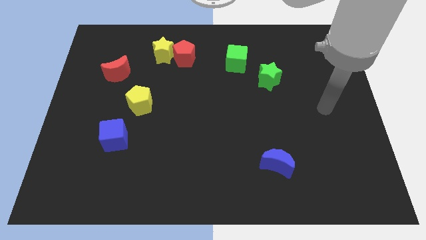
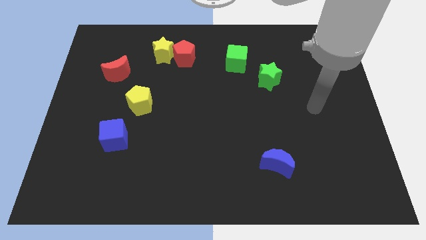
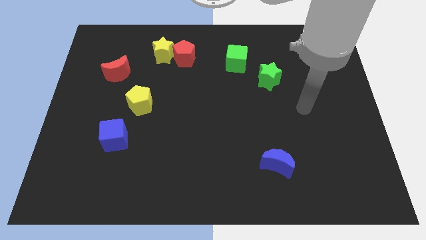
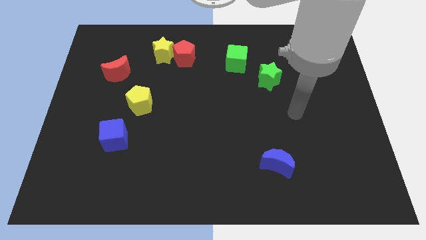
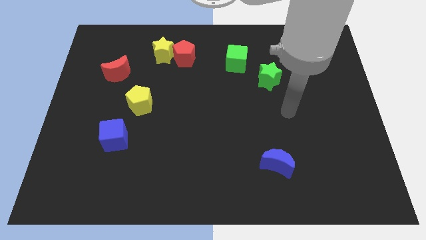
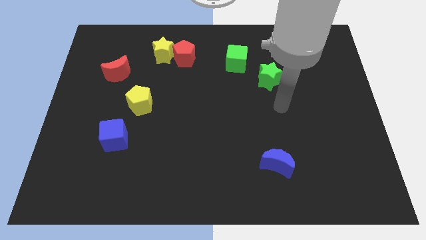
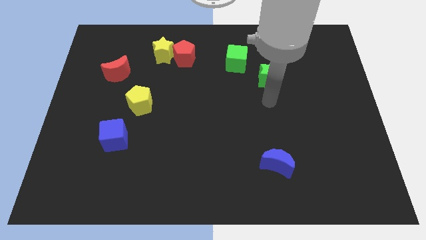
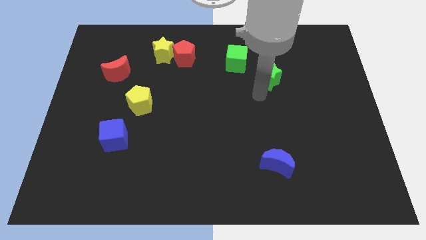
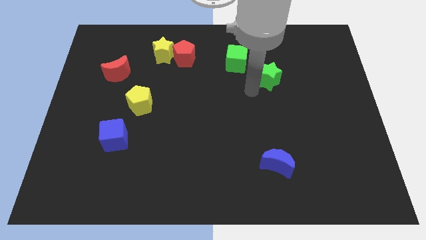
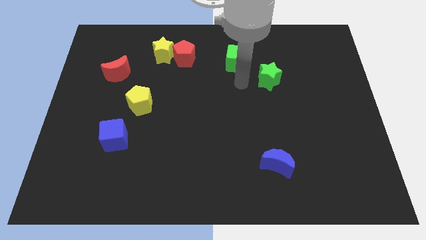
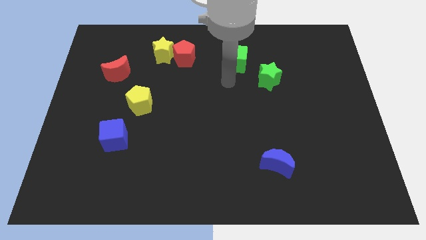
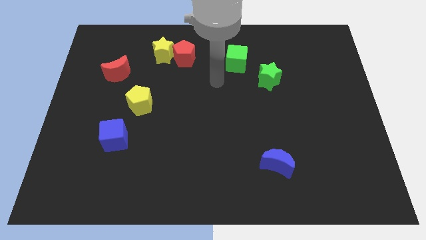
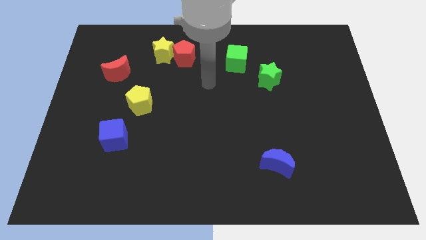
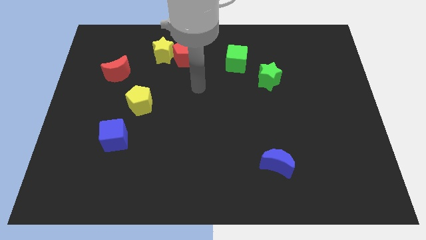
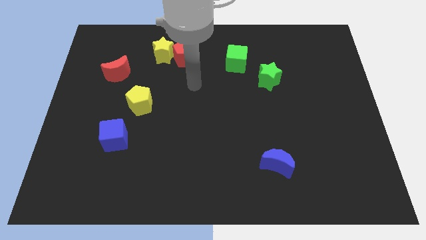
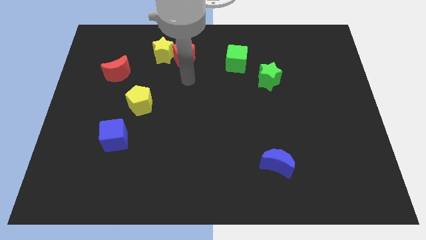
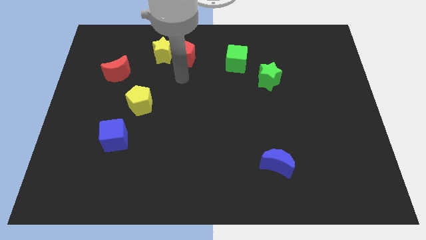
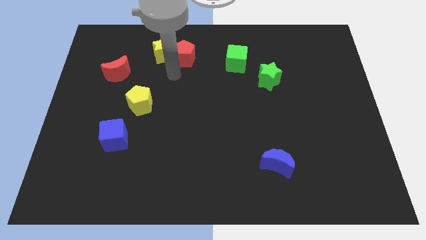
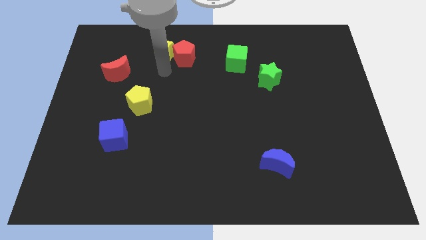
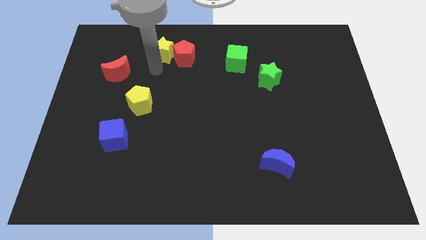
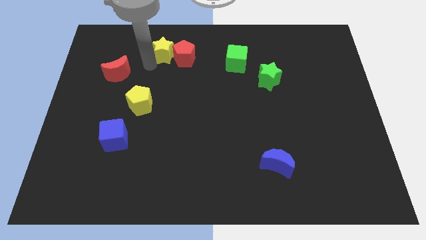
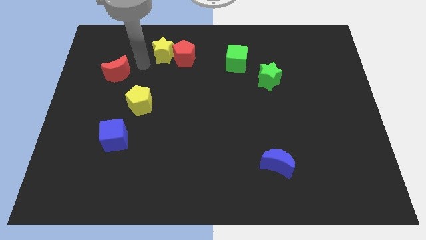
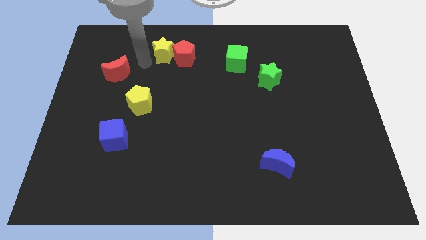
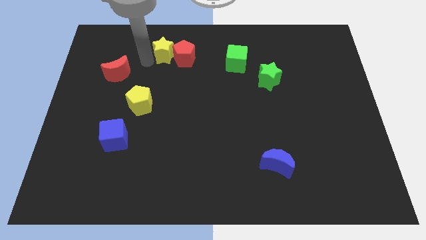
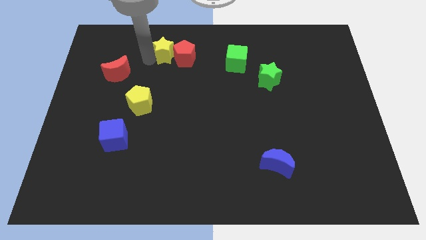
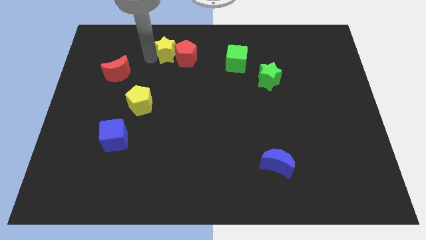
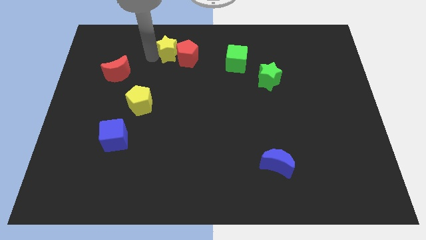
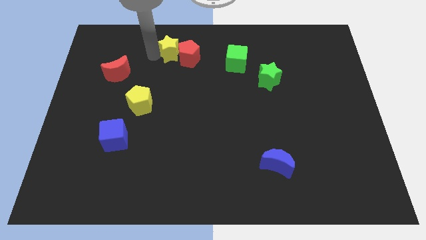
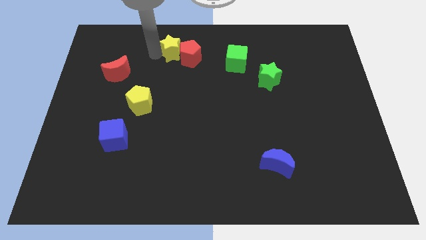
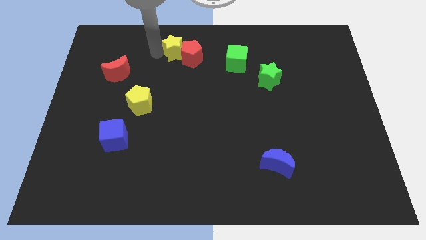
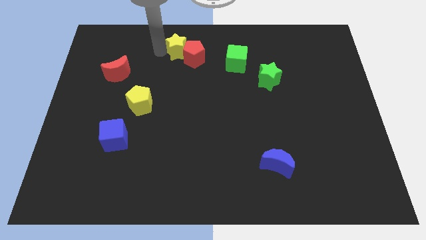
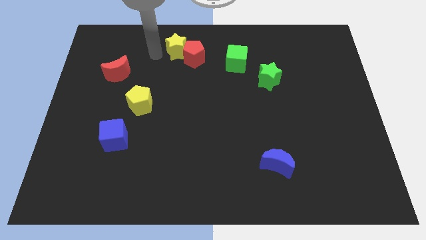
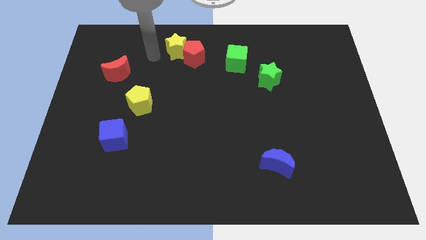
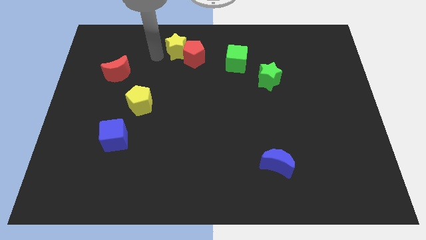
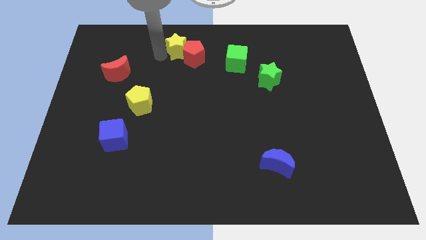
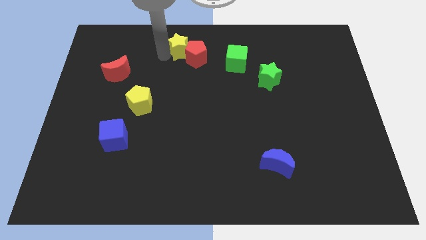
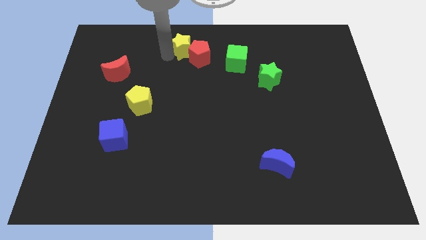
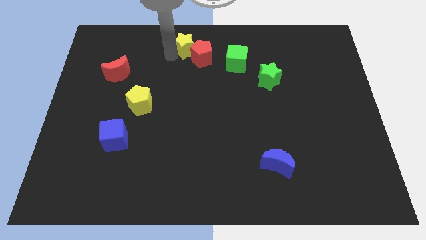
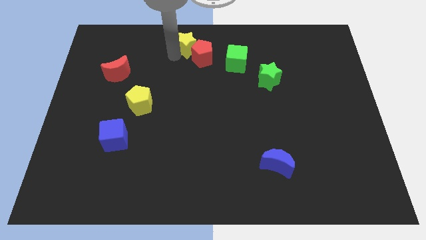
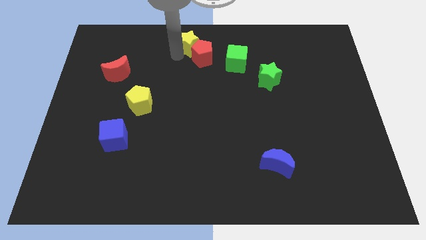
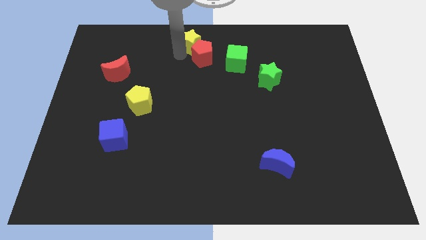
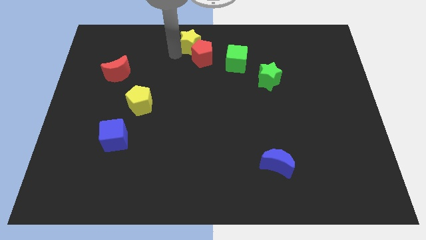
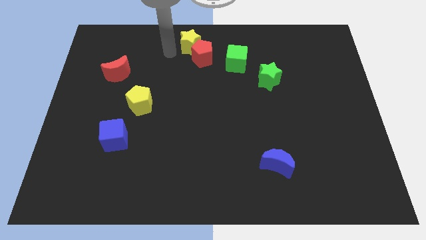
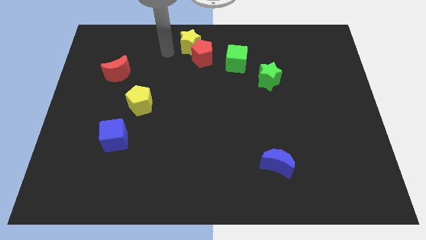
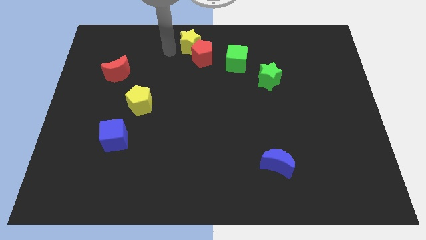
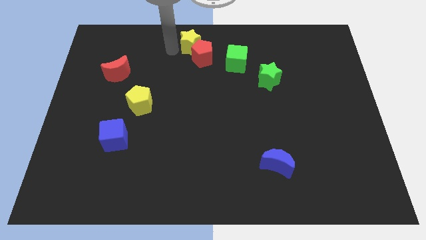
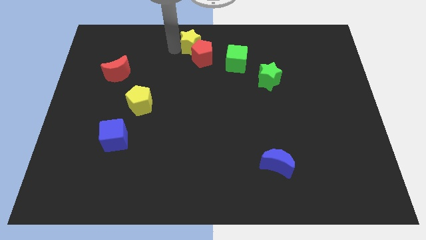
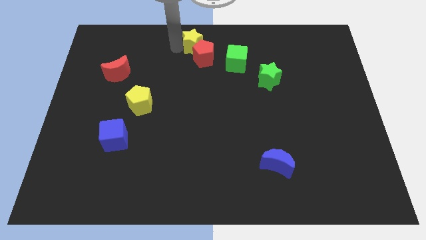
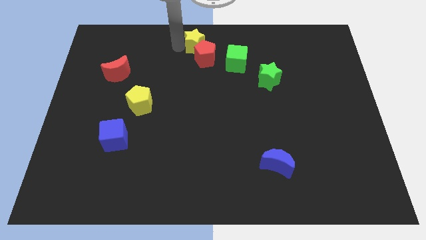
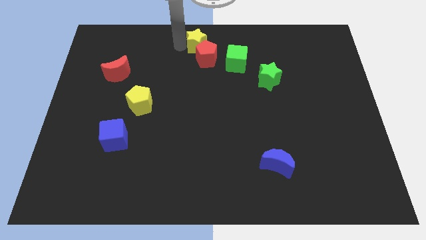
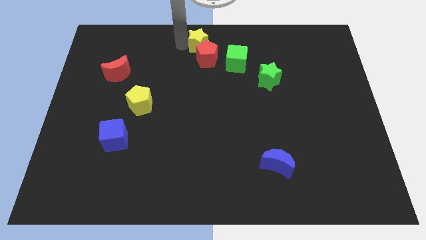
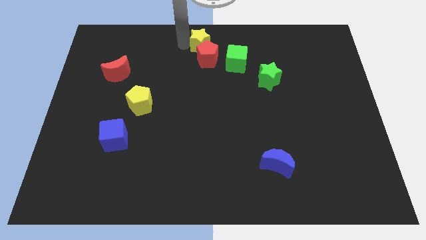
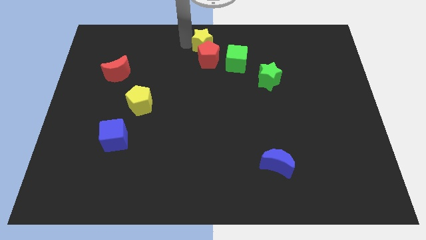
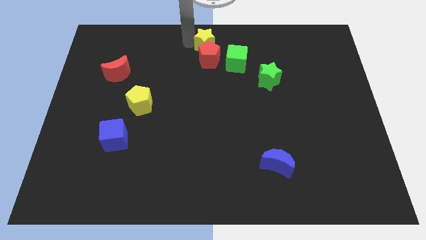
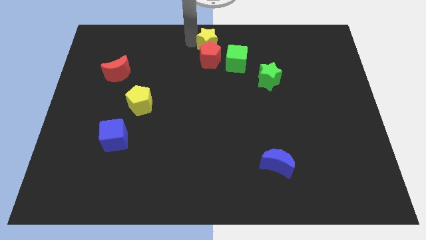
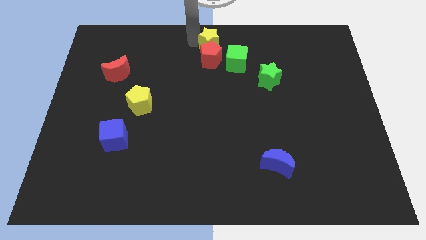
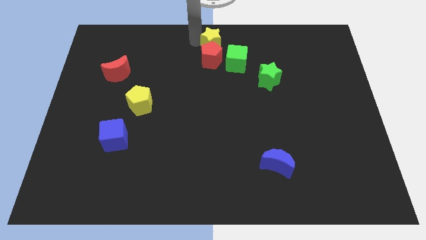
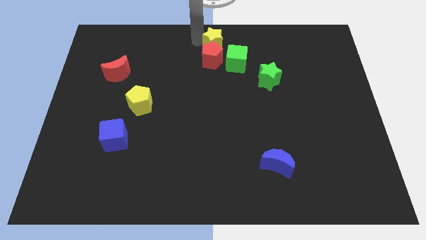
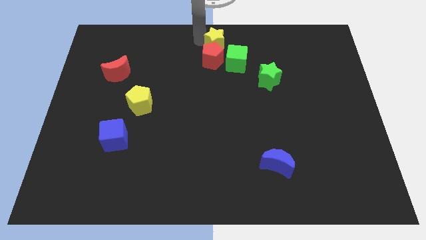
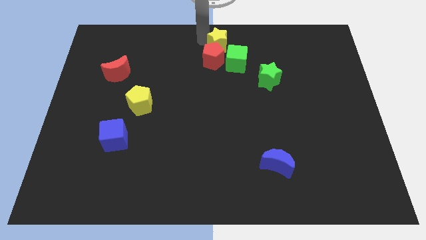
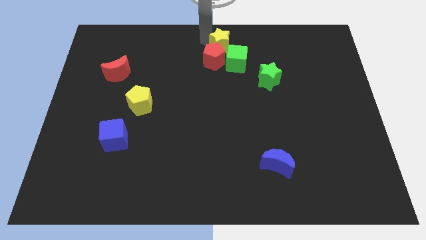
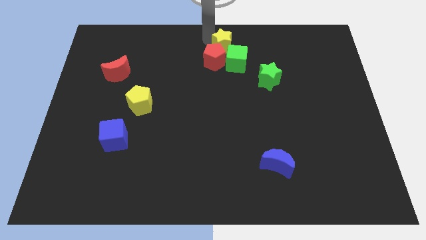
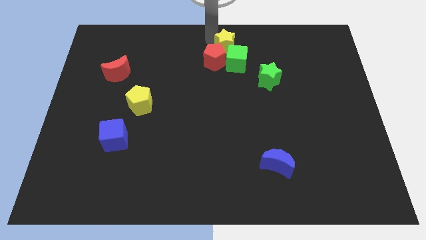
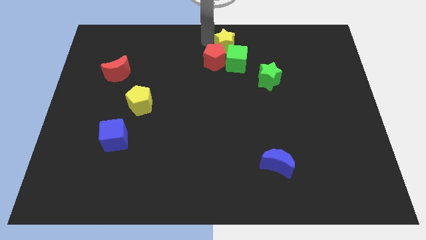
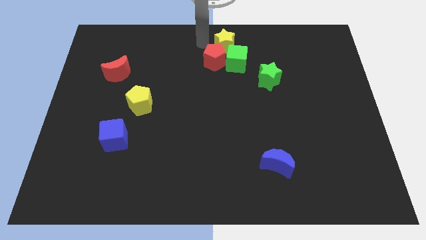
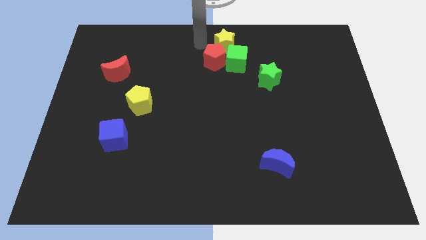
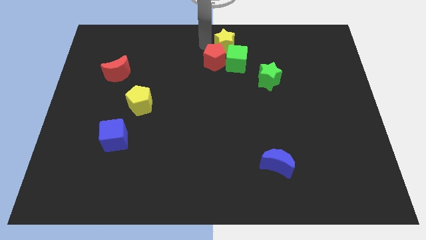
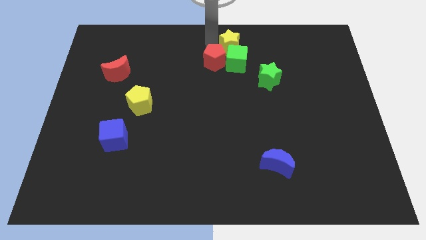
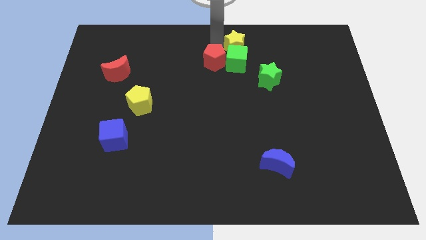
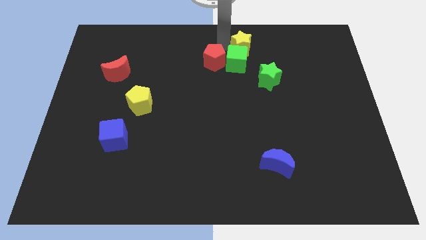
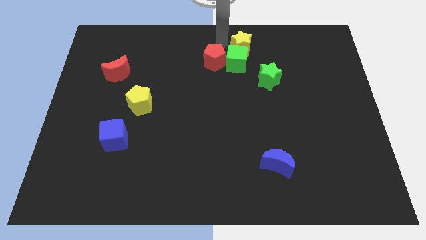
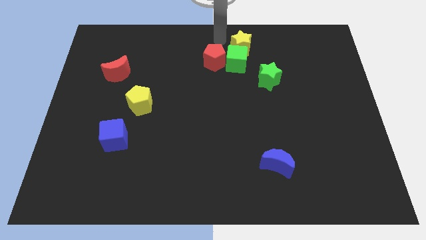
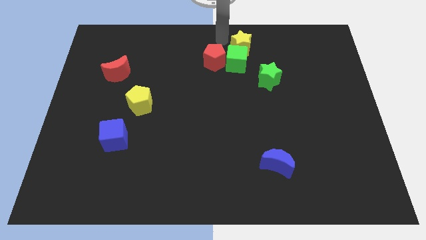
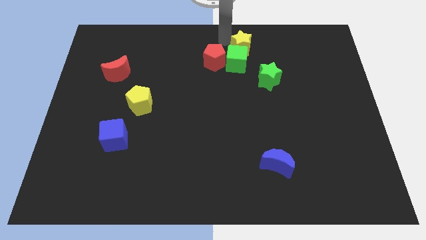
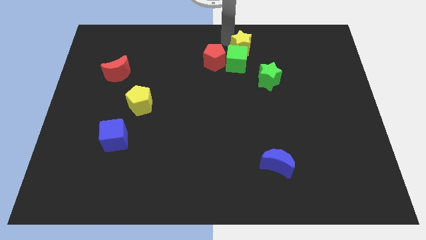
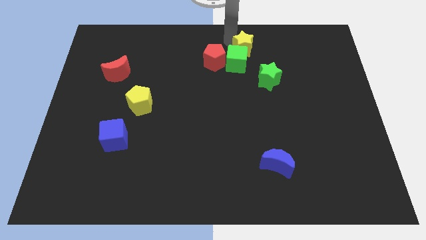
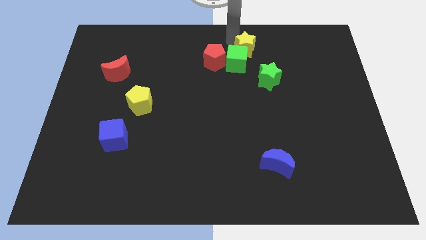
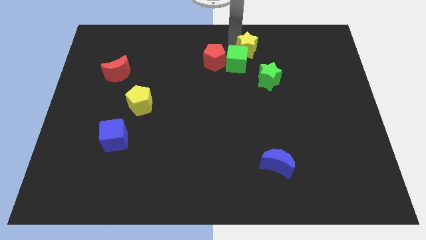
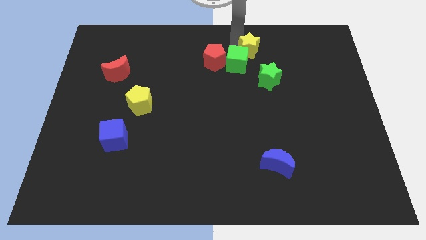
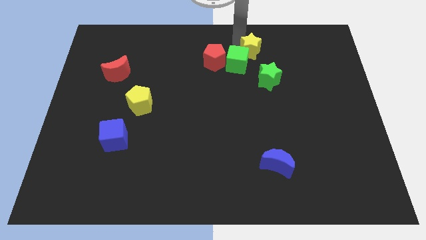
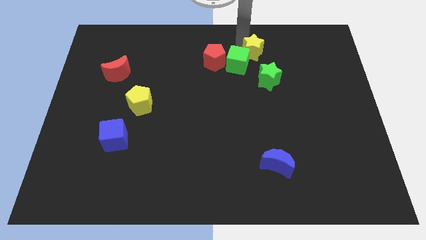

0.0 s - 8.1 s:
slide the yellow star just right of the green cube
